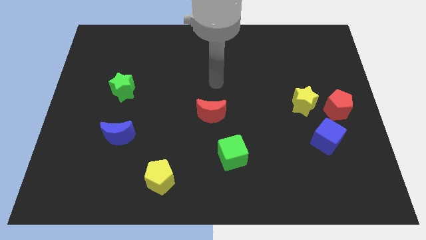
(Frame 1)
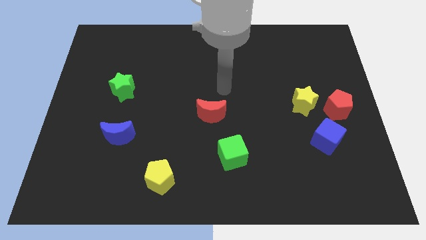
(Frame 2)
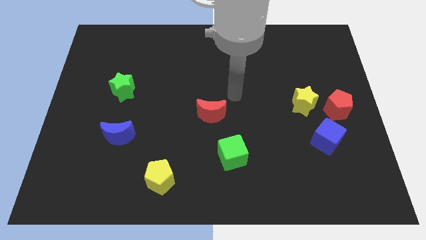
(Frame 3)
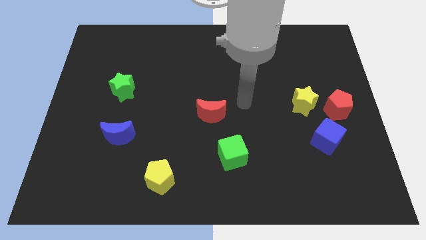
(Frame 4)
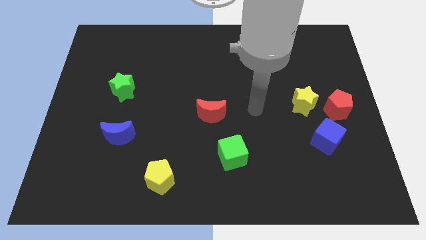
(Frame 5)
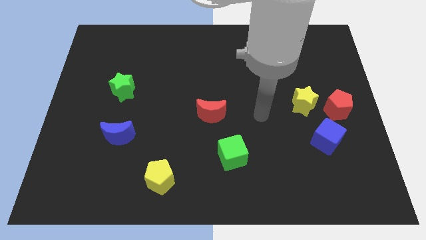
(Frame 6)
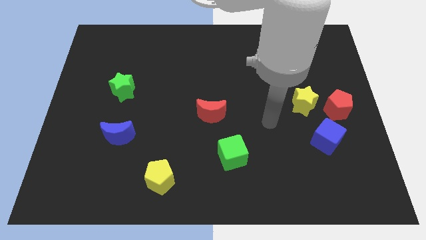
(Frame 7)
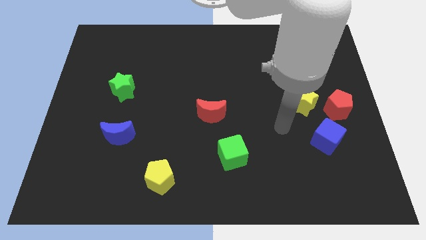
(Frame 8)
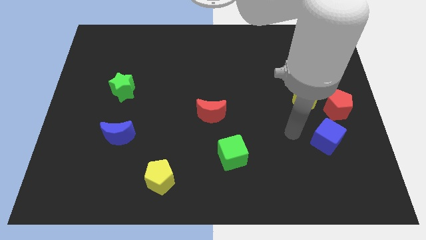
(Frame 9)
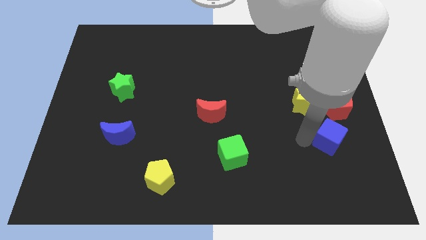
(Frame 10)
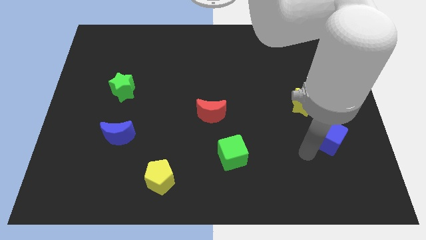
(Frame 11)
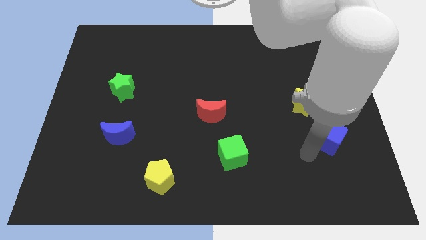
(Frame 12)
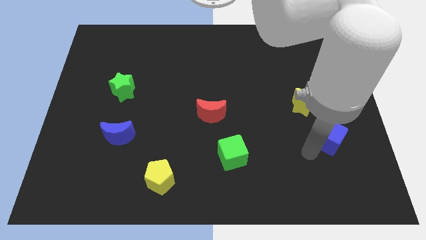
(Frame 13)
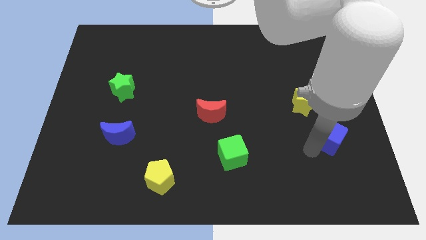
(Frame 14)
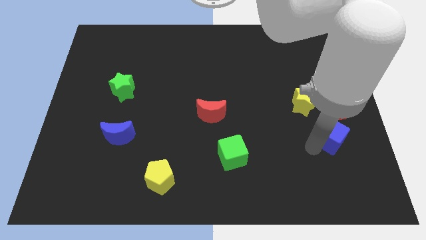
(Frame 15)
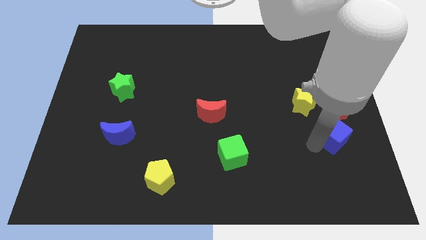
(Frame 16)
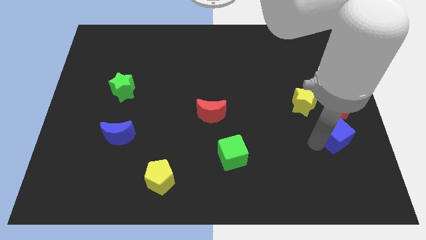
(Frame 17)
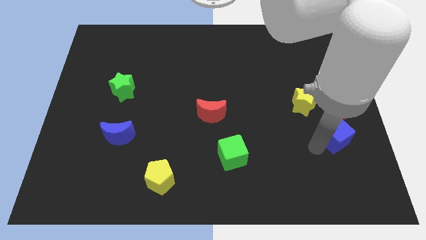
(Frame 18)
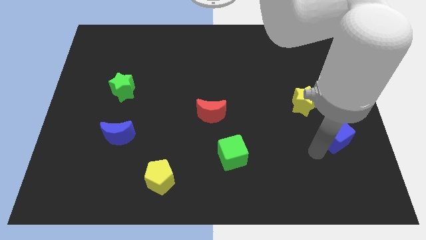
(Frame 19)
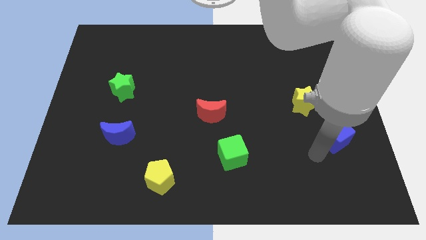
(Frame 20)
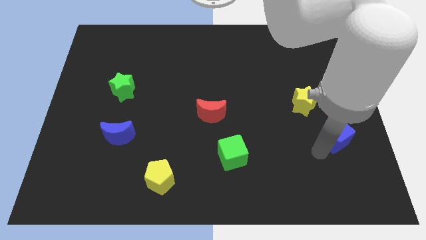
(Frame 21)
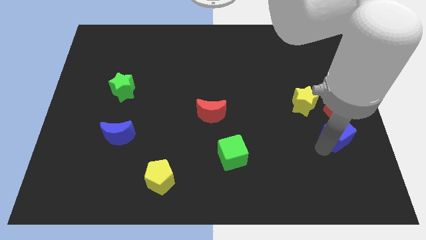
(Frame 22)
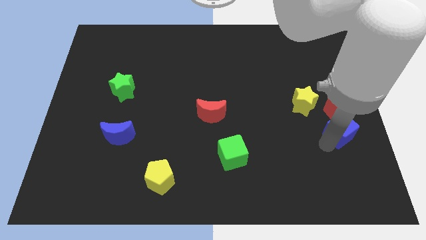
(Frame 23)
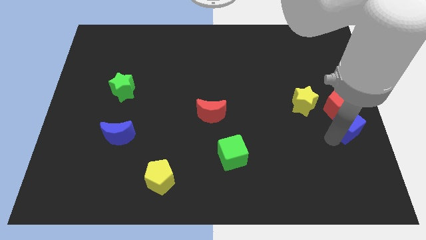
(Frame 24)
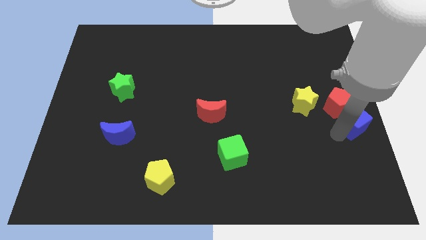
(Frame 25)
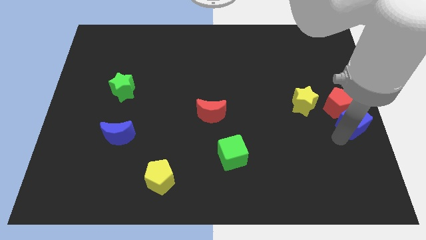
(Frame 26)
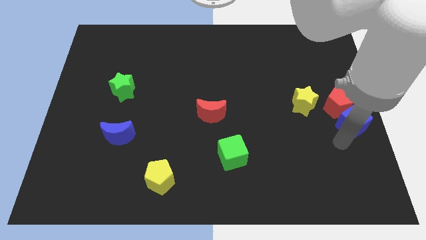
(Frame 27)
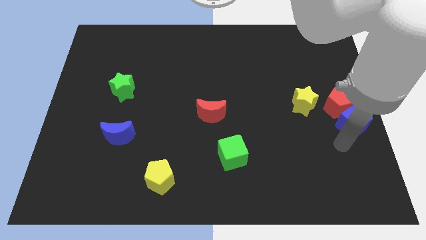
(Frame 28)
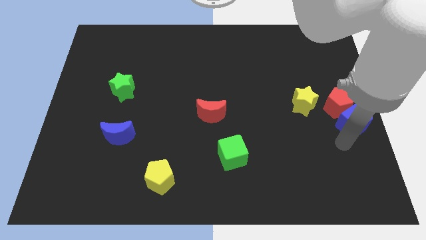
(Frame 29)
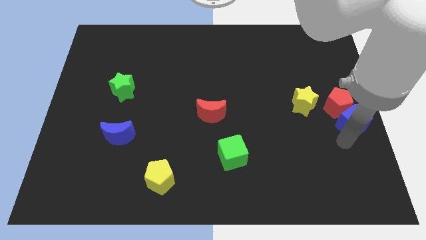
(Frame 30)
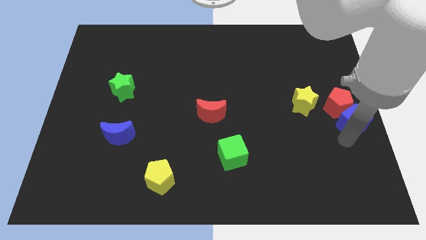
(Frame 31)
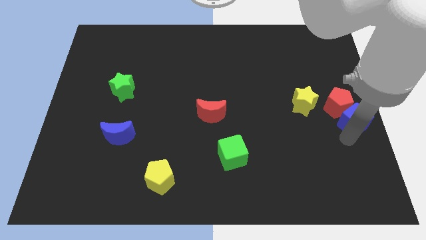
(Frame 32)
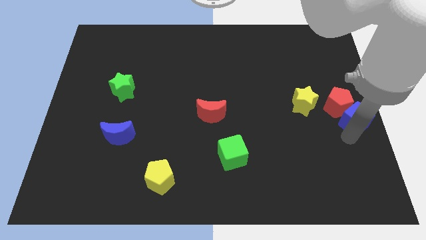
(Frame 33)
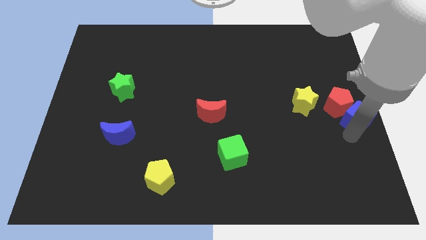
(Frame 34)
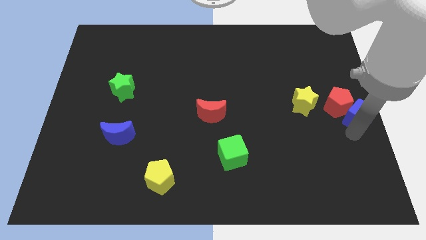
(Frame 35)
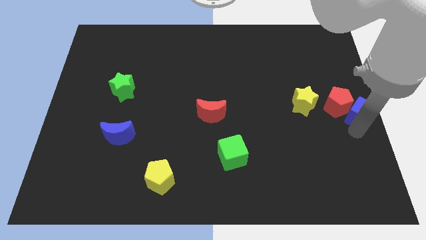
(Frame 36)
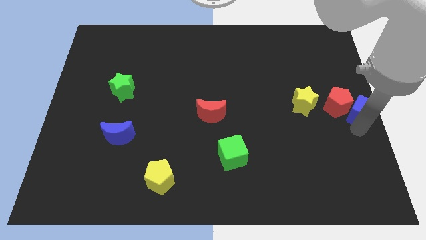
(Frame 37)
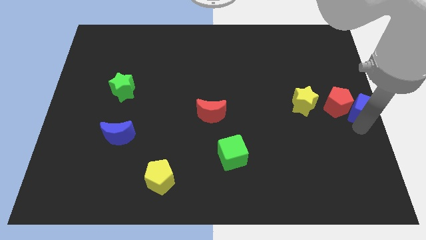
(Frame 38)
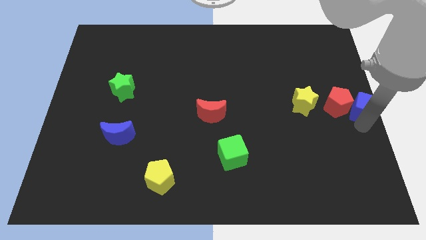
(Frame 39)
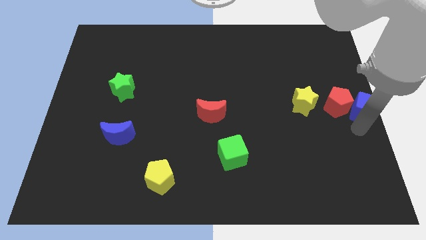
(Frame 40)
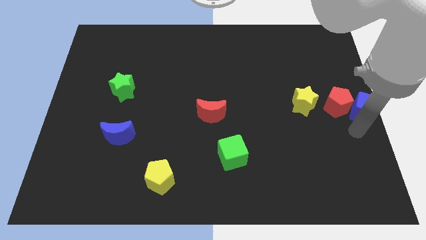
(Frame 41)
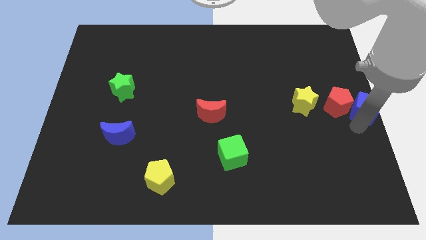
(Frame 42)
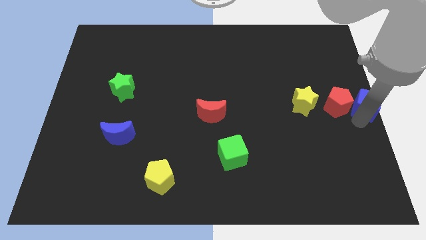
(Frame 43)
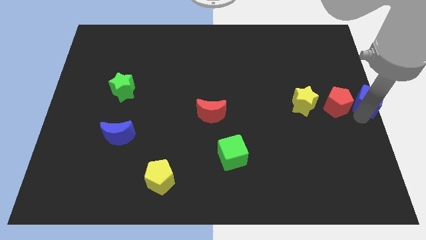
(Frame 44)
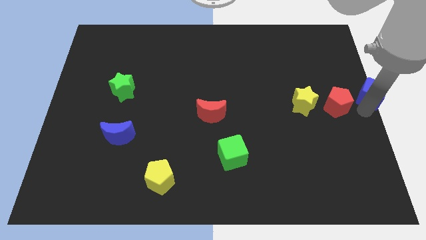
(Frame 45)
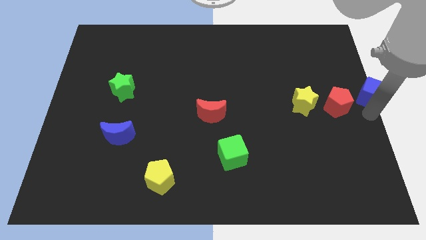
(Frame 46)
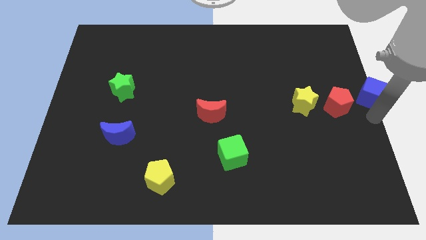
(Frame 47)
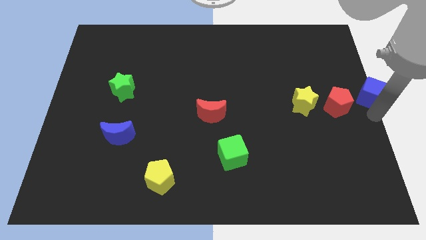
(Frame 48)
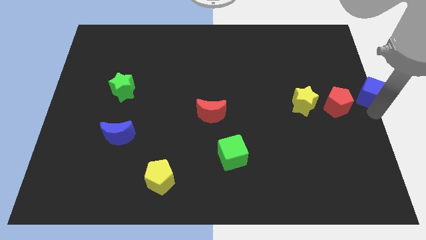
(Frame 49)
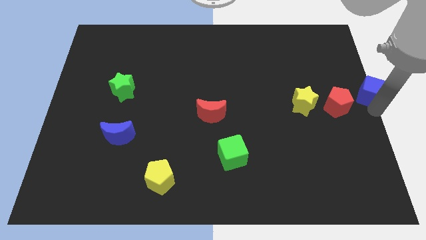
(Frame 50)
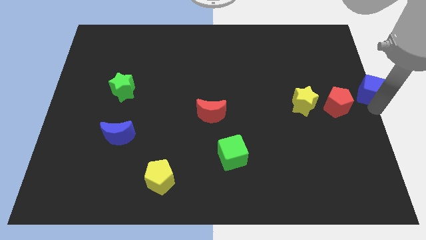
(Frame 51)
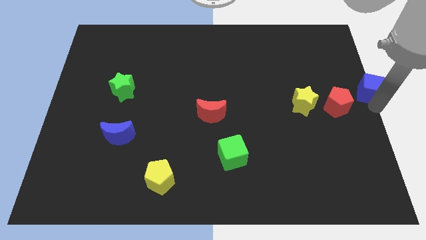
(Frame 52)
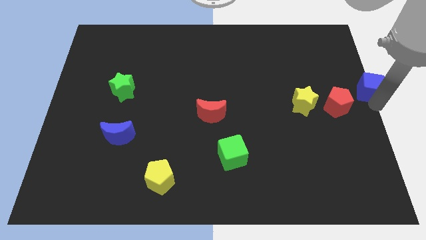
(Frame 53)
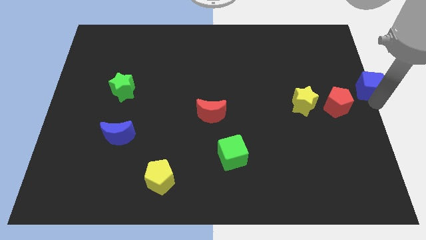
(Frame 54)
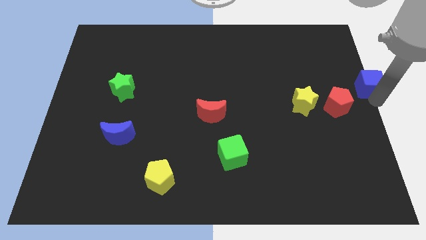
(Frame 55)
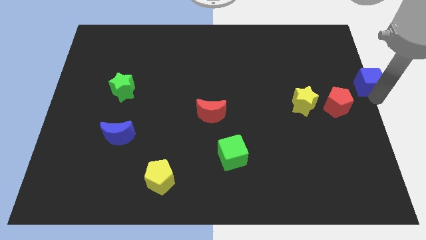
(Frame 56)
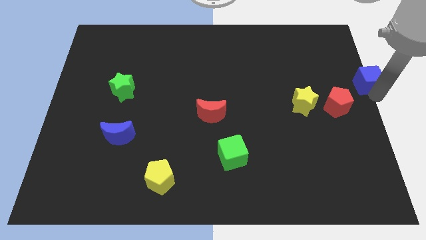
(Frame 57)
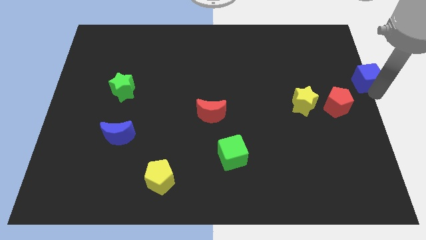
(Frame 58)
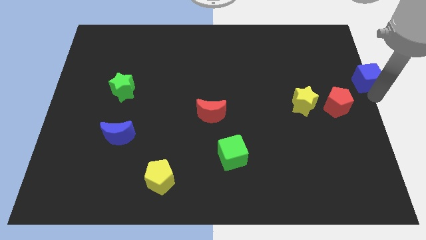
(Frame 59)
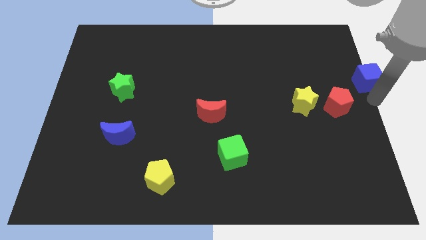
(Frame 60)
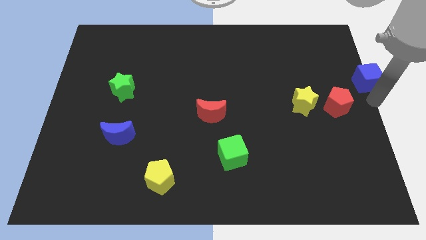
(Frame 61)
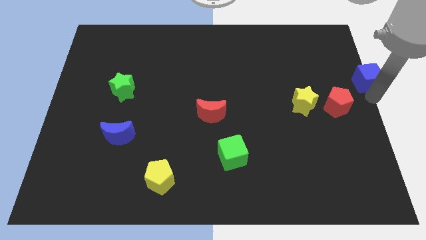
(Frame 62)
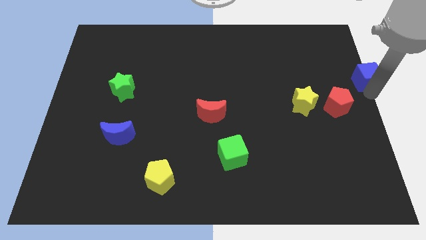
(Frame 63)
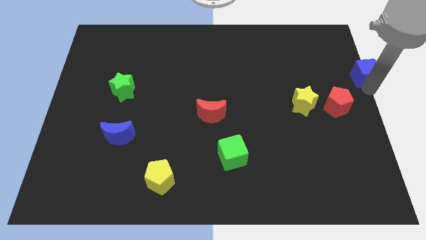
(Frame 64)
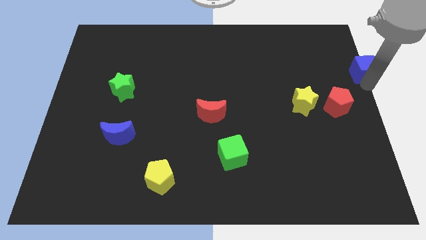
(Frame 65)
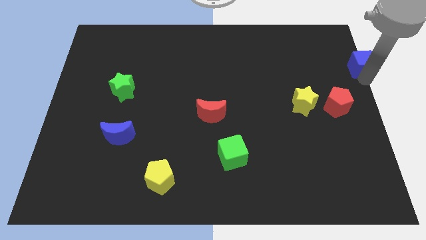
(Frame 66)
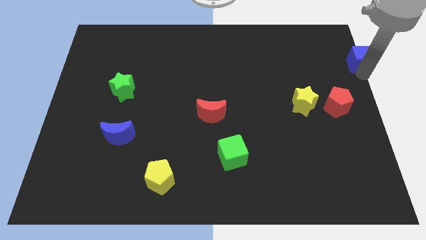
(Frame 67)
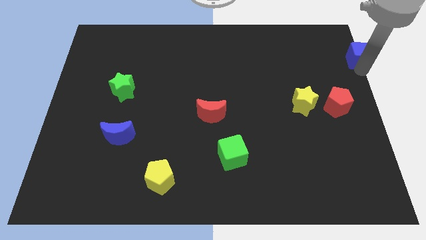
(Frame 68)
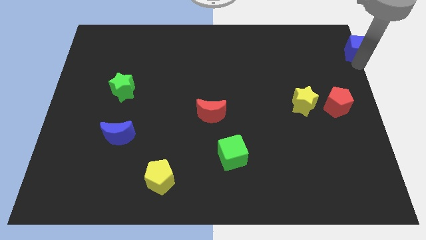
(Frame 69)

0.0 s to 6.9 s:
put the blue cube to the top right

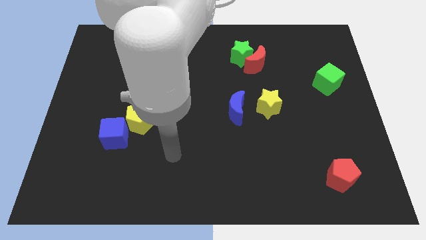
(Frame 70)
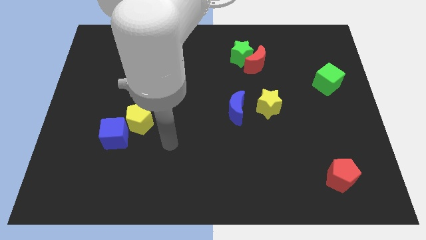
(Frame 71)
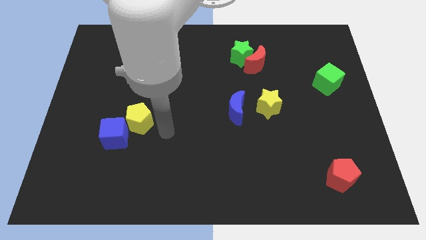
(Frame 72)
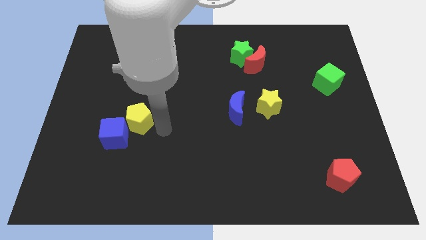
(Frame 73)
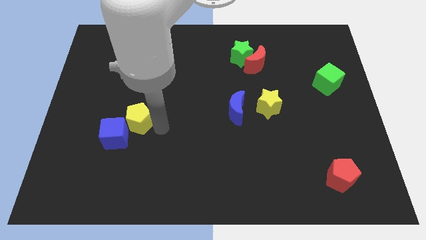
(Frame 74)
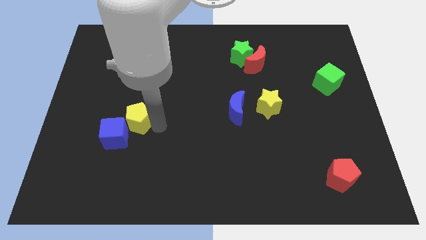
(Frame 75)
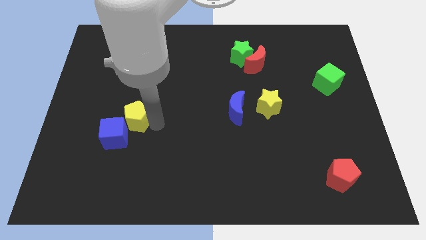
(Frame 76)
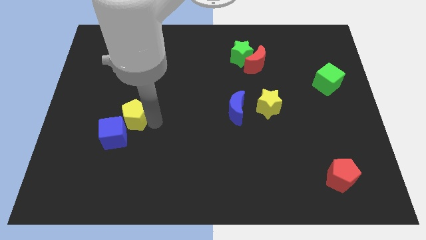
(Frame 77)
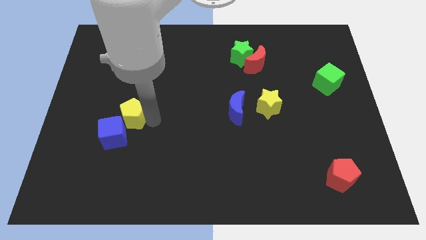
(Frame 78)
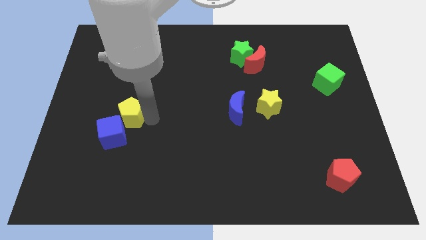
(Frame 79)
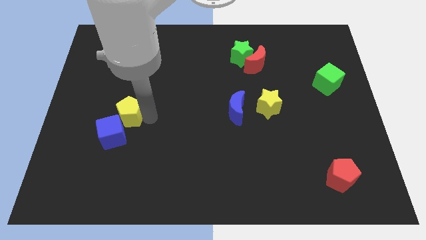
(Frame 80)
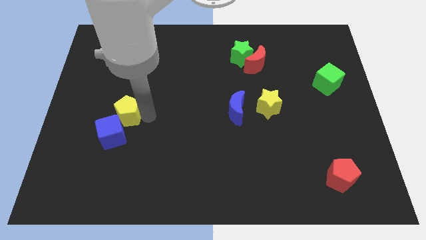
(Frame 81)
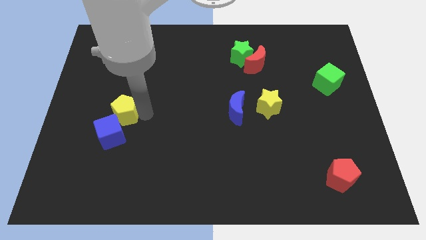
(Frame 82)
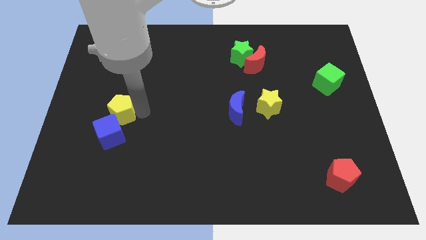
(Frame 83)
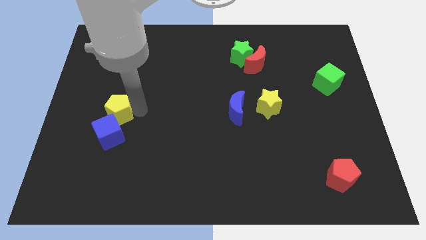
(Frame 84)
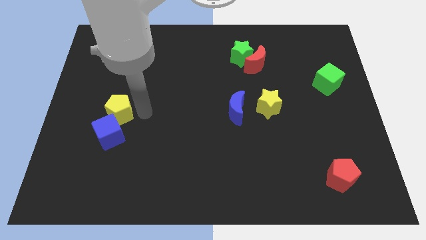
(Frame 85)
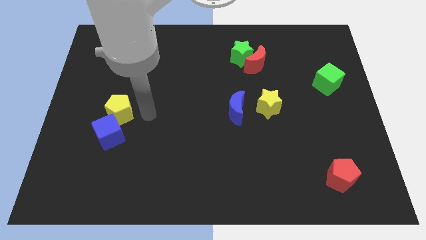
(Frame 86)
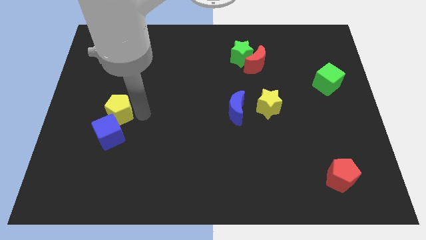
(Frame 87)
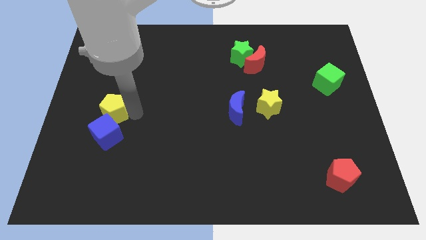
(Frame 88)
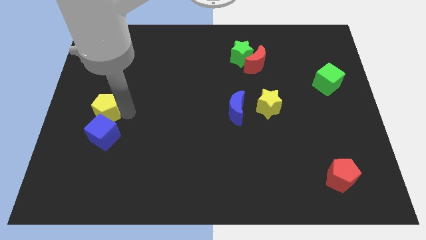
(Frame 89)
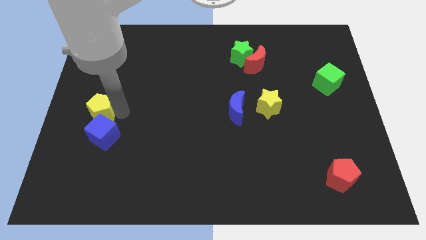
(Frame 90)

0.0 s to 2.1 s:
slide the yellow pentagon to the center left
